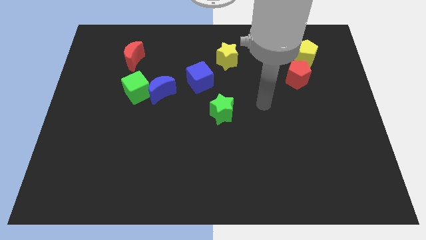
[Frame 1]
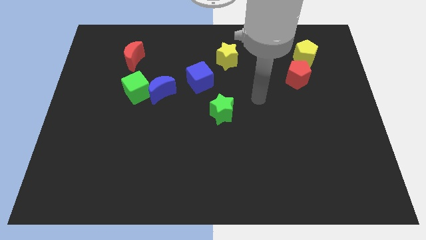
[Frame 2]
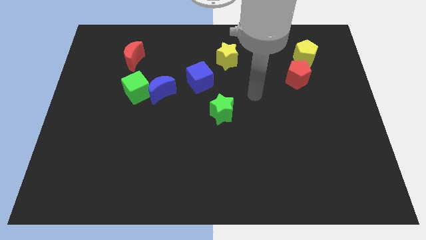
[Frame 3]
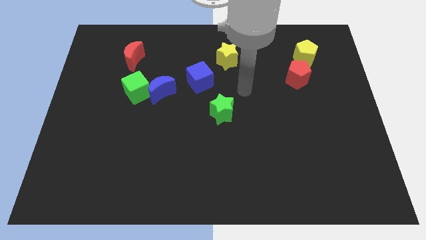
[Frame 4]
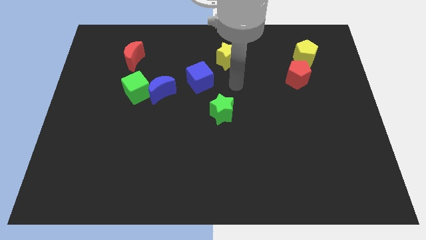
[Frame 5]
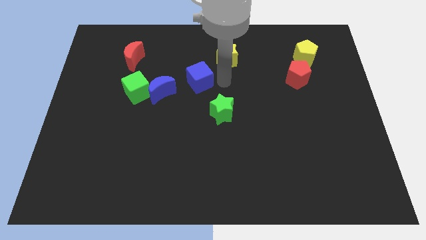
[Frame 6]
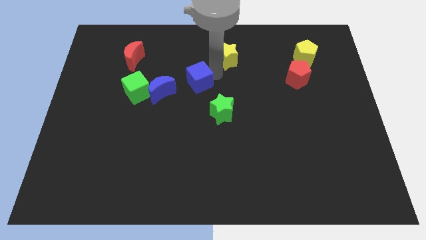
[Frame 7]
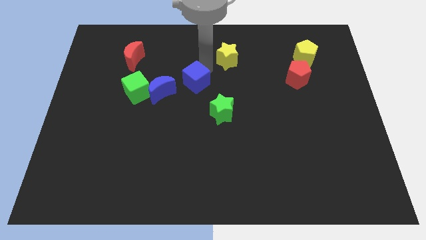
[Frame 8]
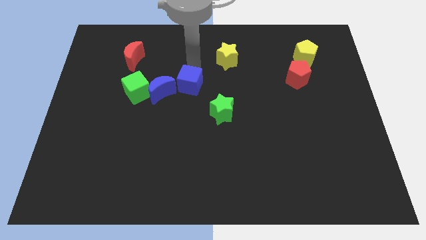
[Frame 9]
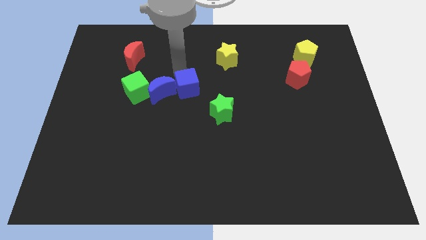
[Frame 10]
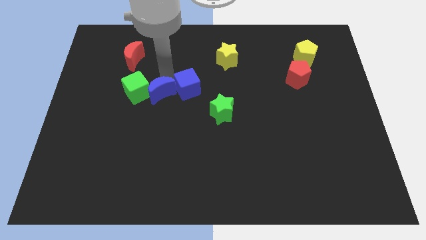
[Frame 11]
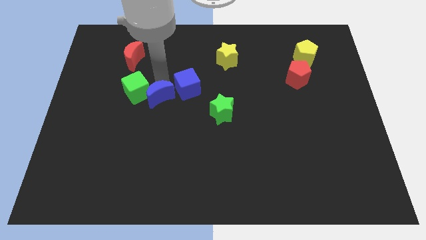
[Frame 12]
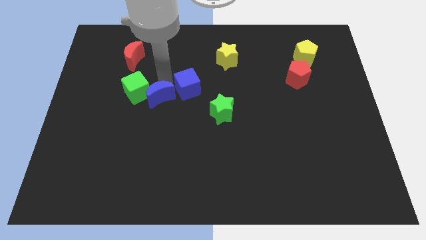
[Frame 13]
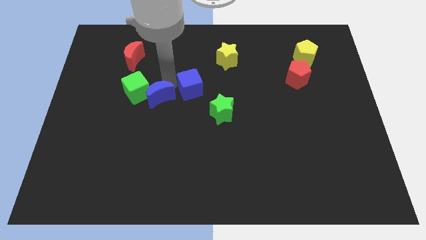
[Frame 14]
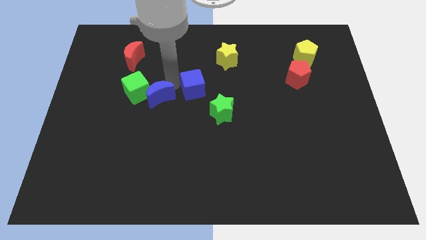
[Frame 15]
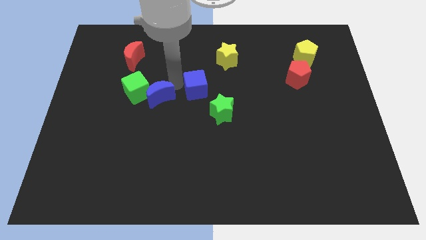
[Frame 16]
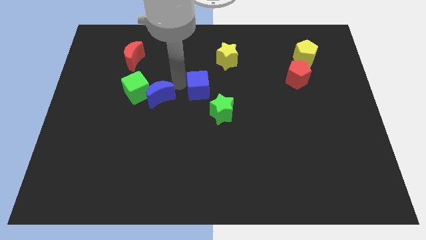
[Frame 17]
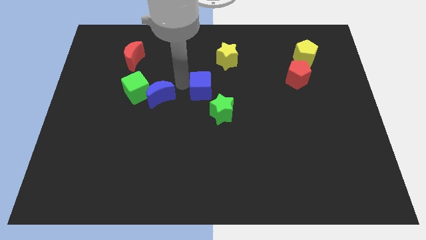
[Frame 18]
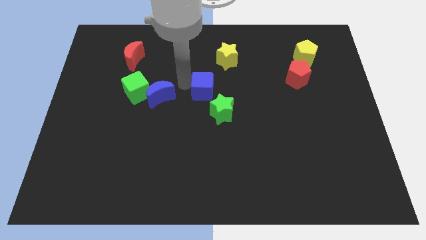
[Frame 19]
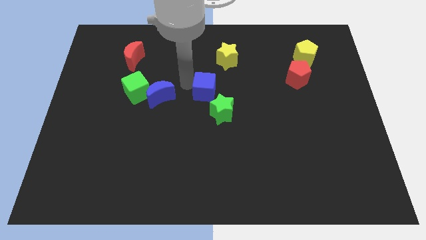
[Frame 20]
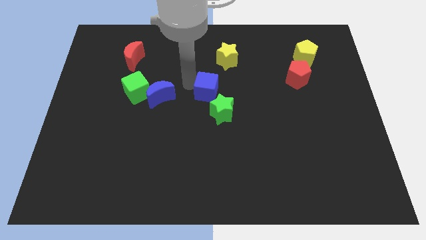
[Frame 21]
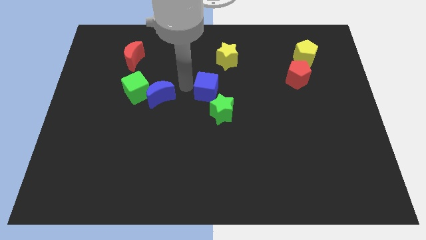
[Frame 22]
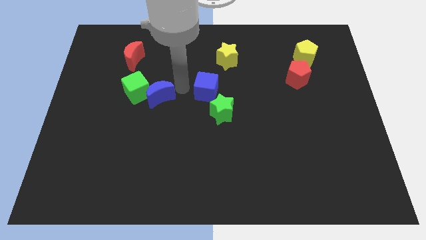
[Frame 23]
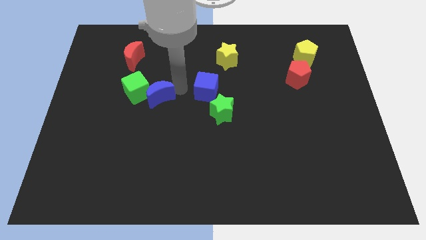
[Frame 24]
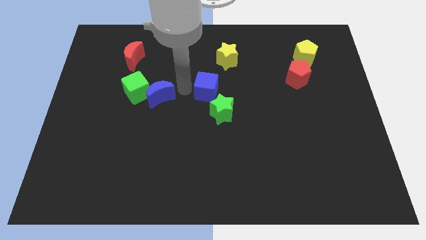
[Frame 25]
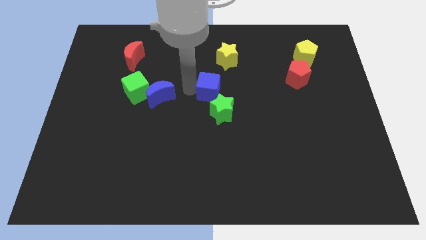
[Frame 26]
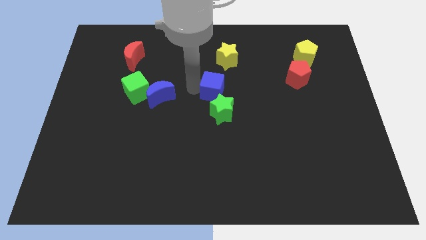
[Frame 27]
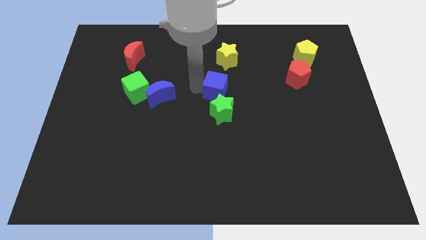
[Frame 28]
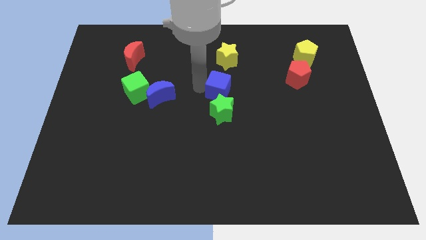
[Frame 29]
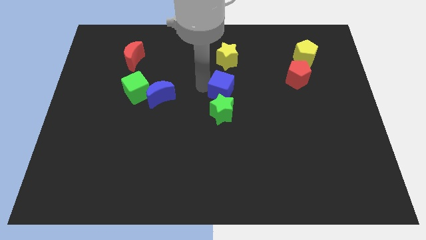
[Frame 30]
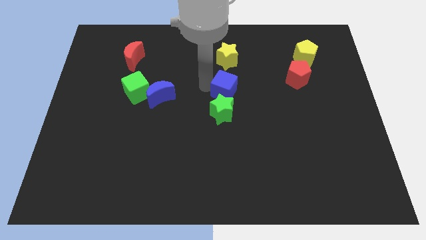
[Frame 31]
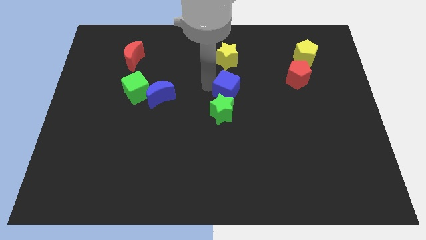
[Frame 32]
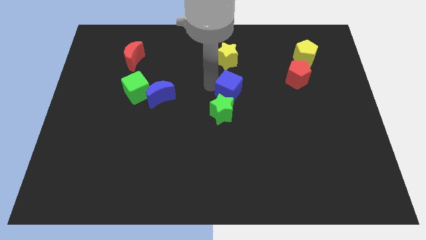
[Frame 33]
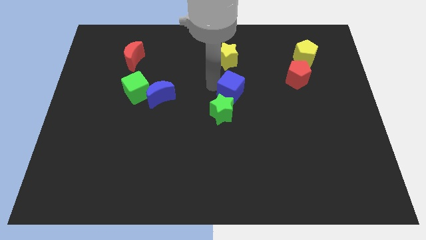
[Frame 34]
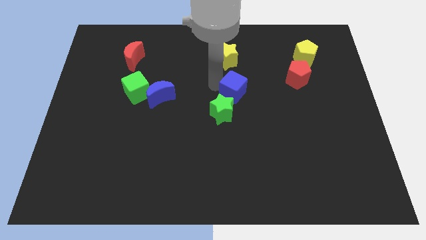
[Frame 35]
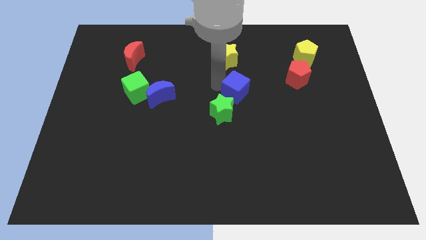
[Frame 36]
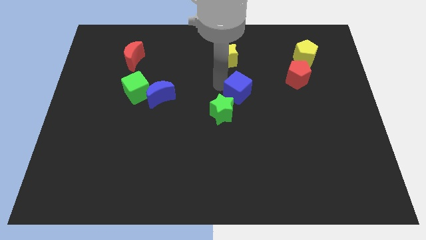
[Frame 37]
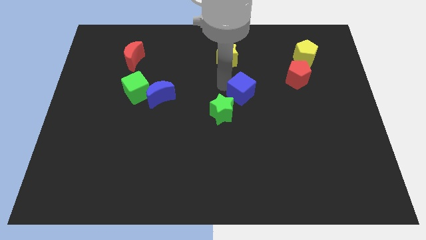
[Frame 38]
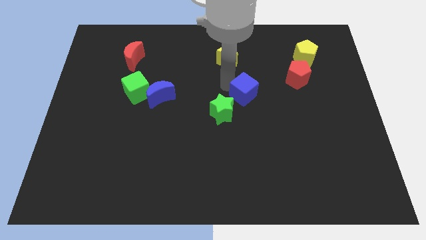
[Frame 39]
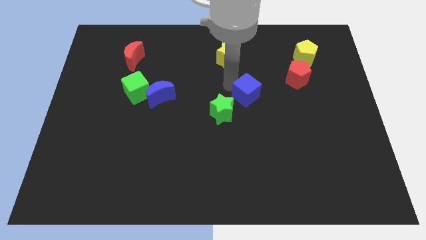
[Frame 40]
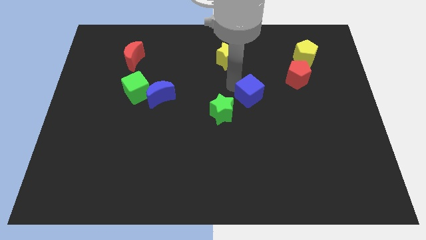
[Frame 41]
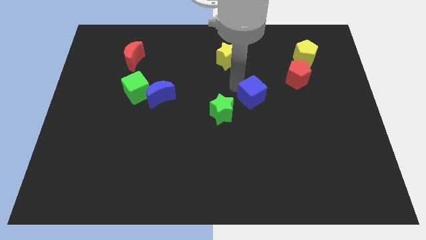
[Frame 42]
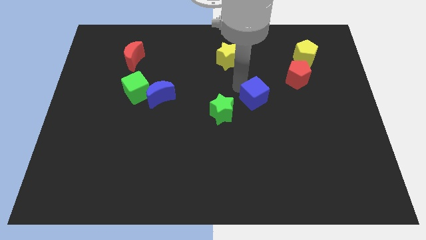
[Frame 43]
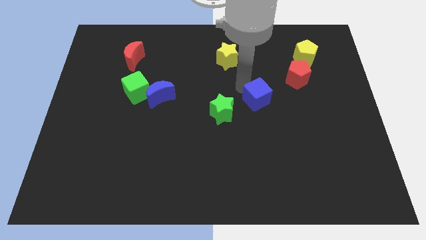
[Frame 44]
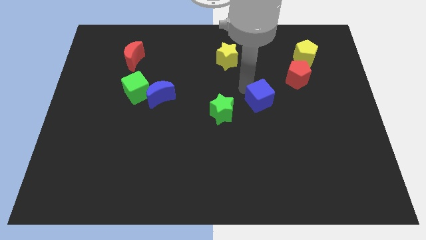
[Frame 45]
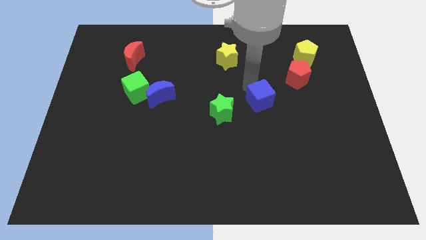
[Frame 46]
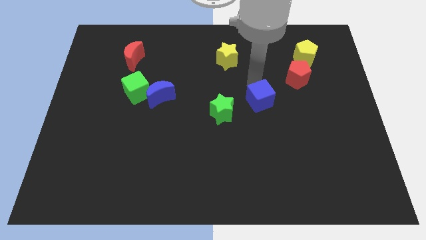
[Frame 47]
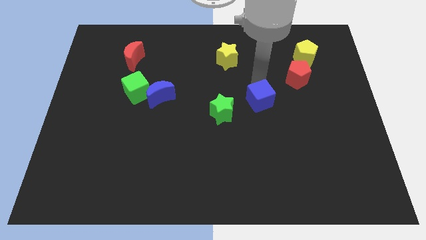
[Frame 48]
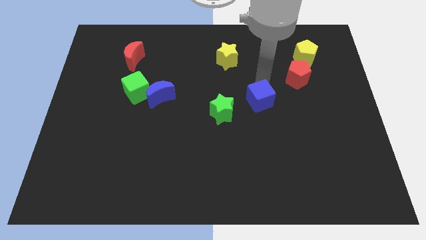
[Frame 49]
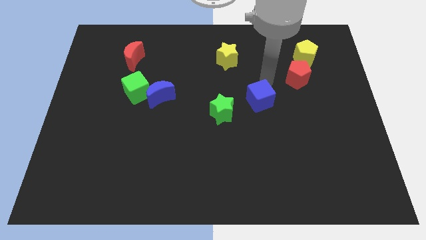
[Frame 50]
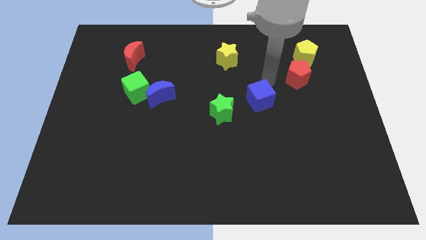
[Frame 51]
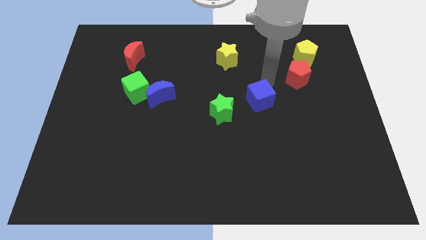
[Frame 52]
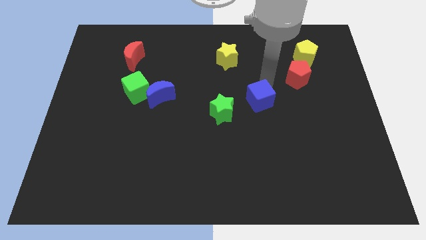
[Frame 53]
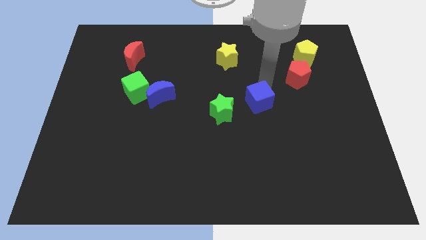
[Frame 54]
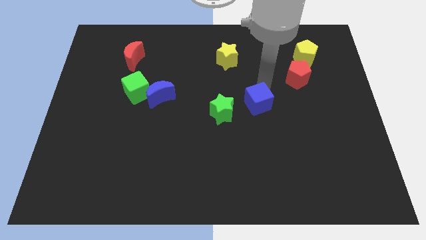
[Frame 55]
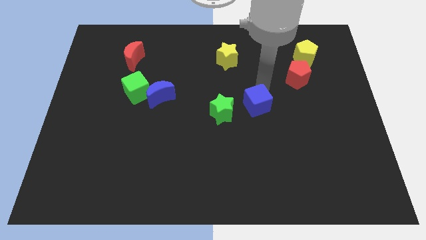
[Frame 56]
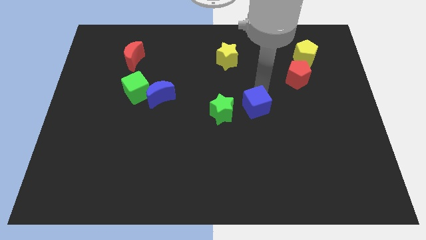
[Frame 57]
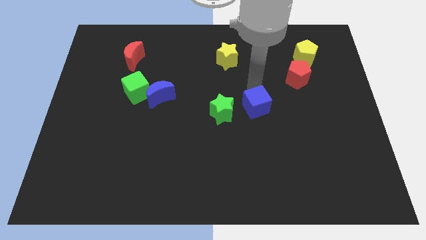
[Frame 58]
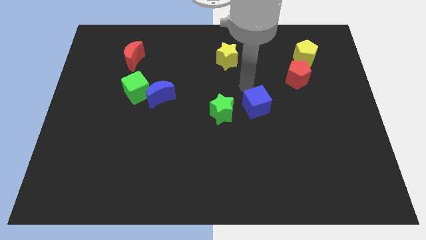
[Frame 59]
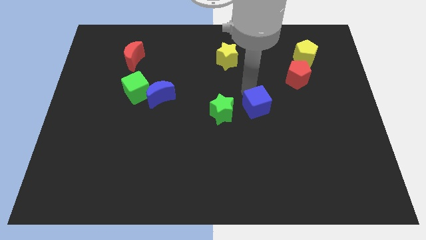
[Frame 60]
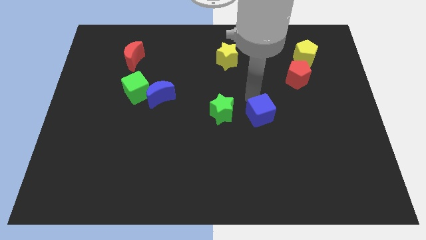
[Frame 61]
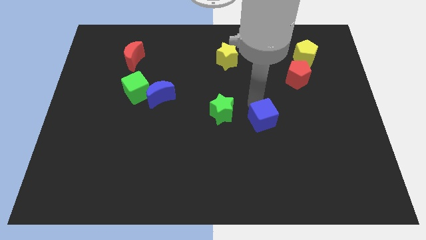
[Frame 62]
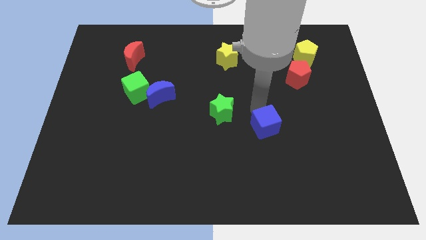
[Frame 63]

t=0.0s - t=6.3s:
slide the blue cube downwards and to the right diagonally

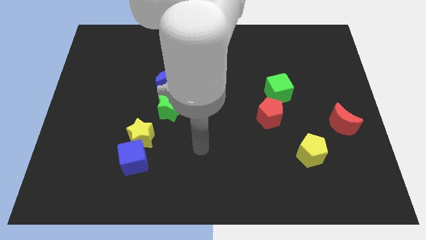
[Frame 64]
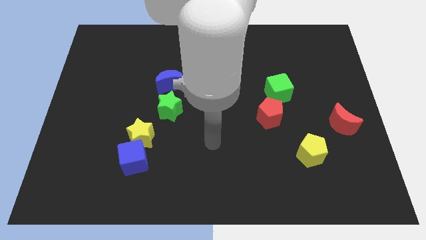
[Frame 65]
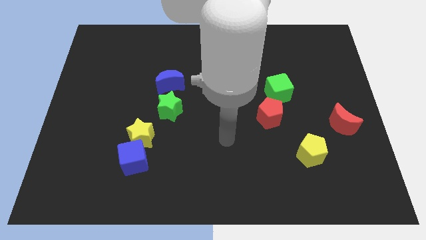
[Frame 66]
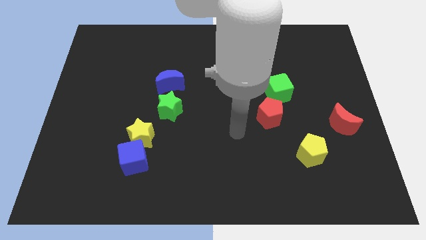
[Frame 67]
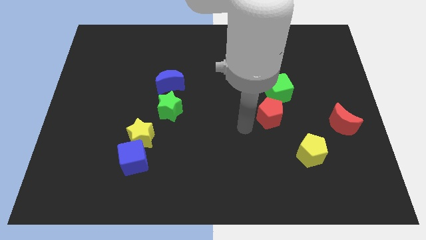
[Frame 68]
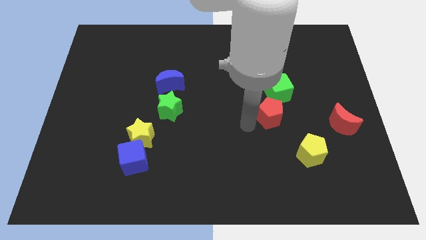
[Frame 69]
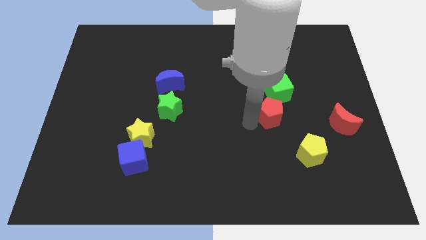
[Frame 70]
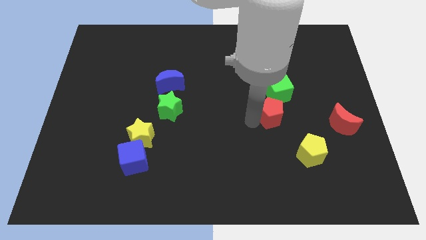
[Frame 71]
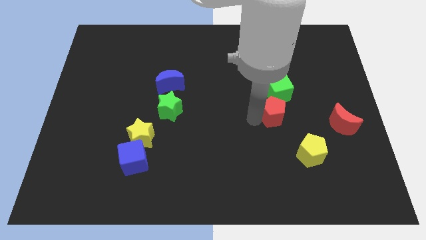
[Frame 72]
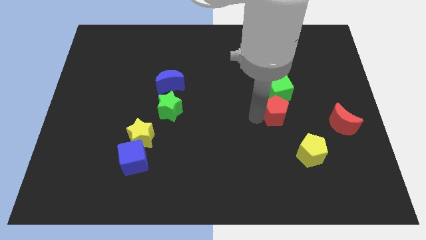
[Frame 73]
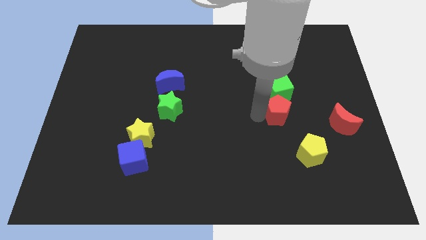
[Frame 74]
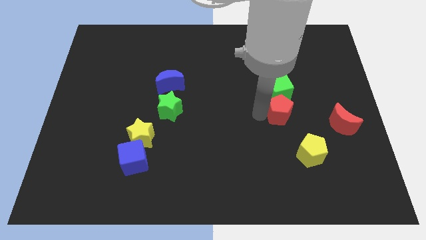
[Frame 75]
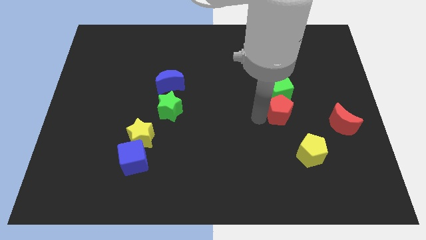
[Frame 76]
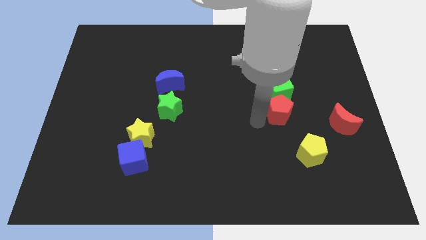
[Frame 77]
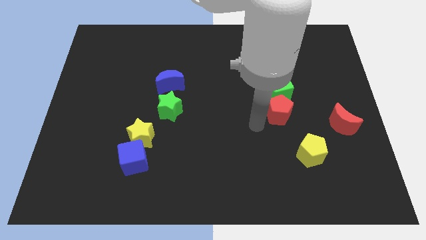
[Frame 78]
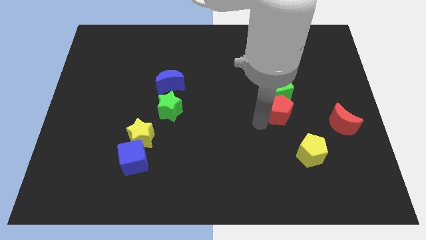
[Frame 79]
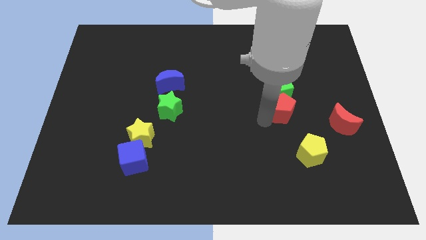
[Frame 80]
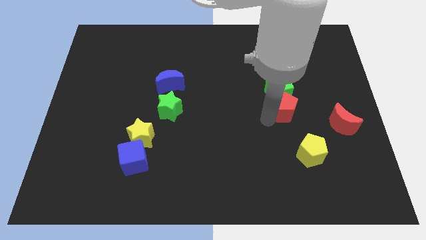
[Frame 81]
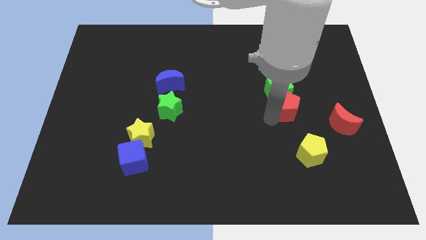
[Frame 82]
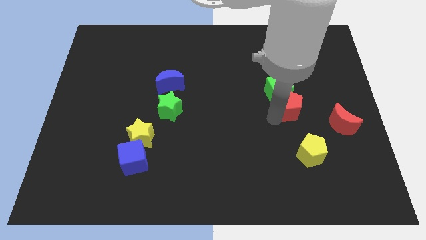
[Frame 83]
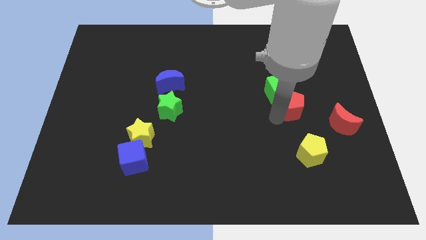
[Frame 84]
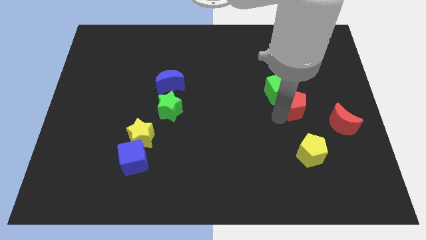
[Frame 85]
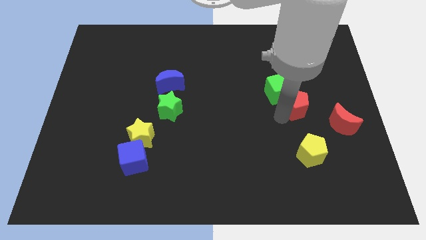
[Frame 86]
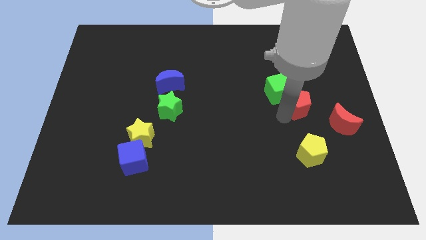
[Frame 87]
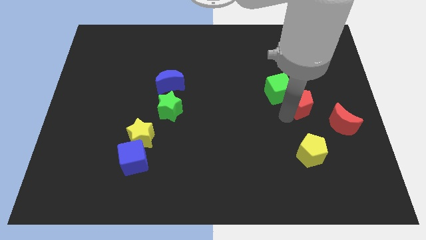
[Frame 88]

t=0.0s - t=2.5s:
push the red pentagon somewhat up and right
